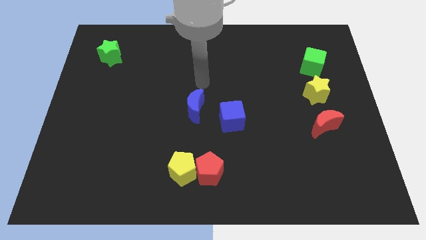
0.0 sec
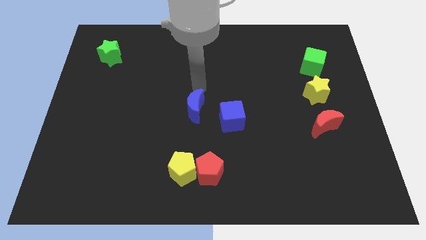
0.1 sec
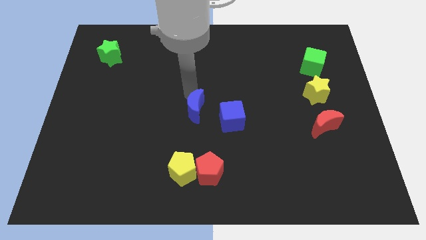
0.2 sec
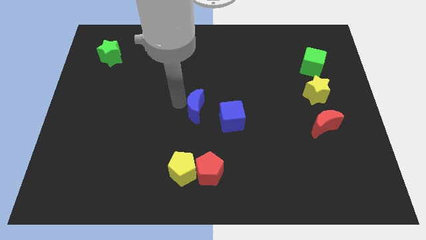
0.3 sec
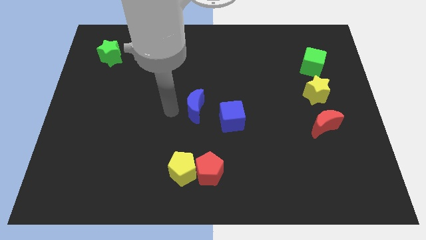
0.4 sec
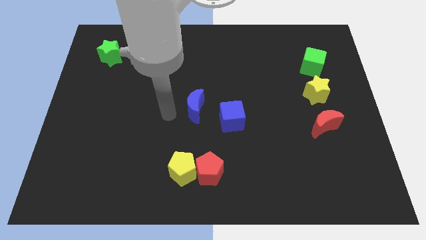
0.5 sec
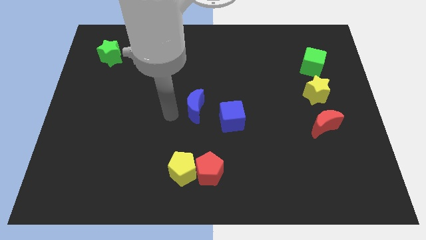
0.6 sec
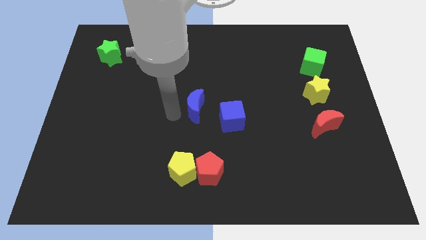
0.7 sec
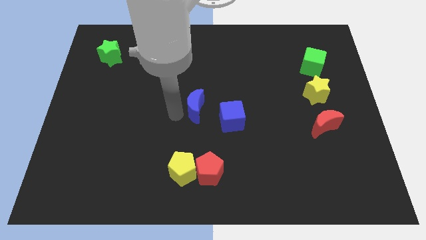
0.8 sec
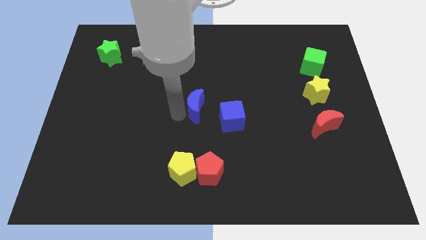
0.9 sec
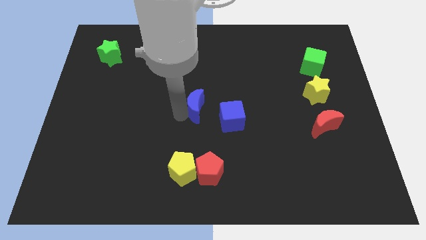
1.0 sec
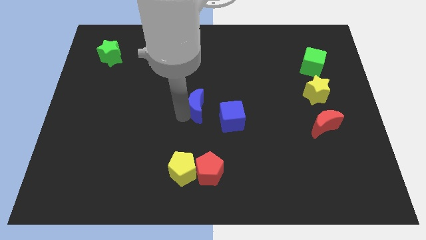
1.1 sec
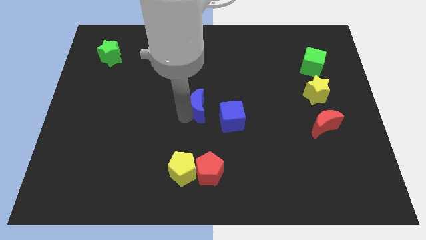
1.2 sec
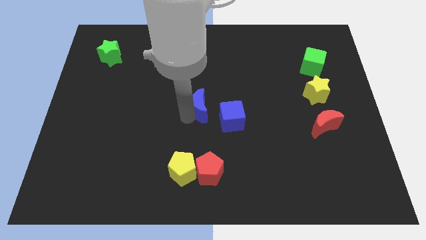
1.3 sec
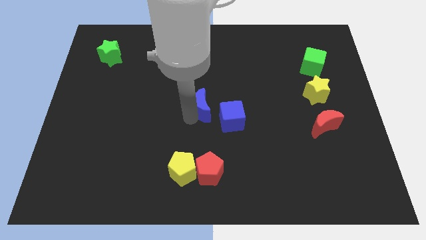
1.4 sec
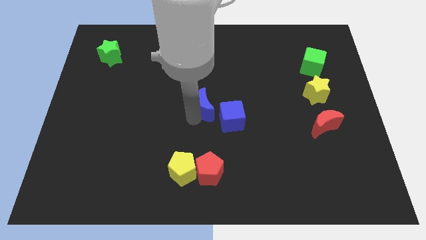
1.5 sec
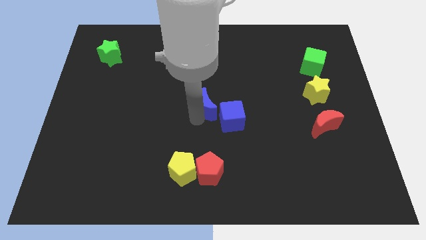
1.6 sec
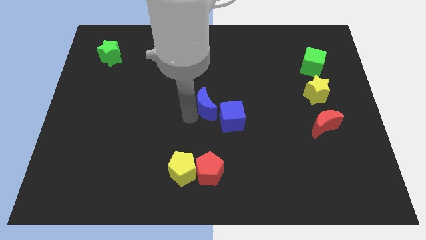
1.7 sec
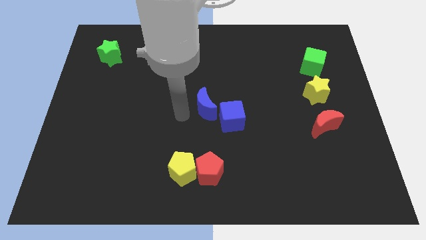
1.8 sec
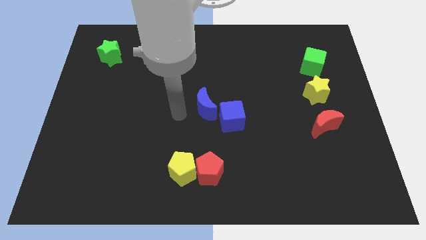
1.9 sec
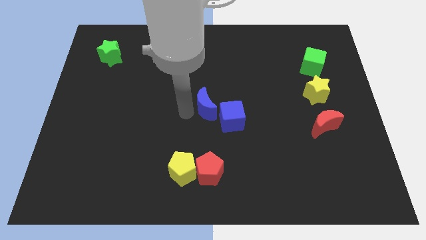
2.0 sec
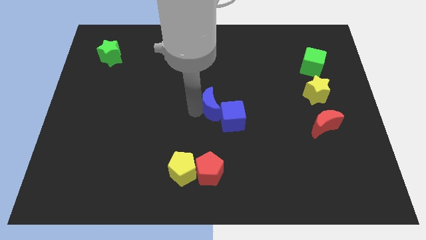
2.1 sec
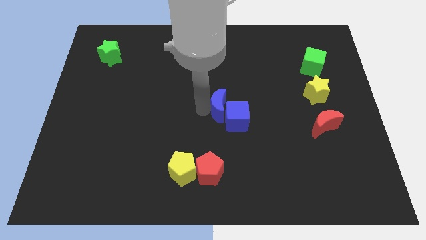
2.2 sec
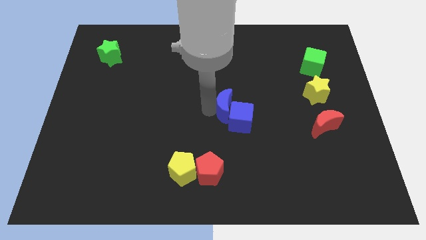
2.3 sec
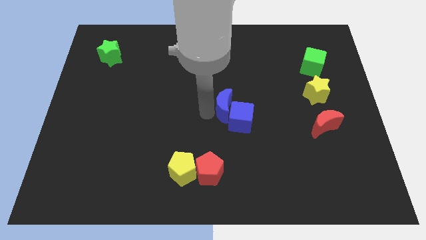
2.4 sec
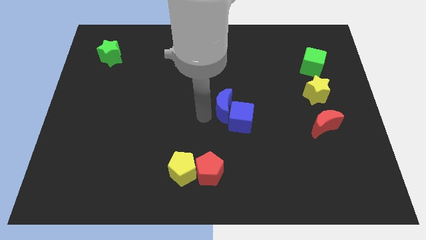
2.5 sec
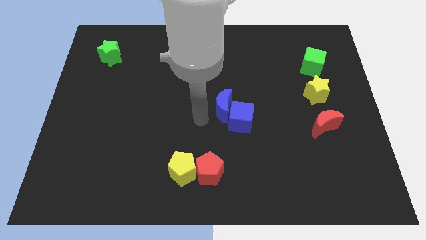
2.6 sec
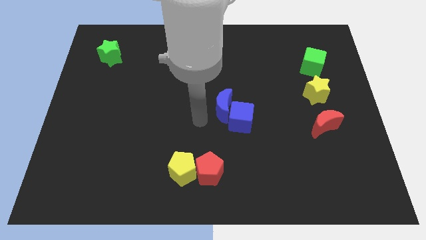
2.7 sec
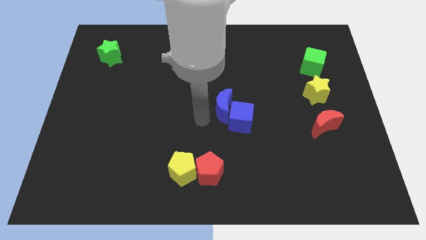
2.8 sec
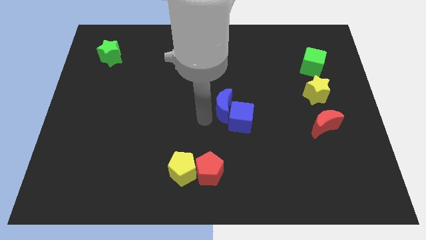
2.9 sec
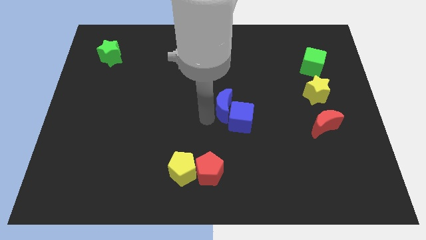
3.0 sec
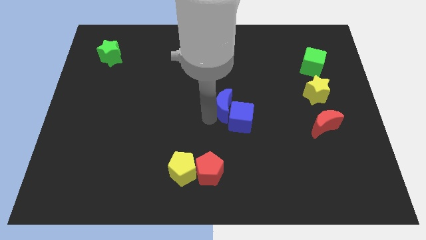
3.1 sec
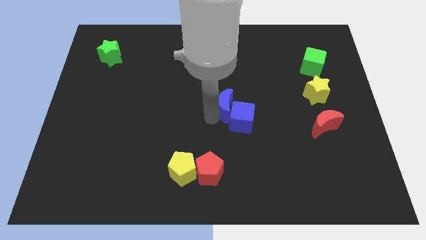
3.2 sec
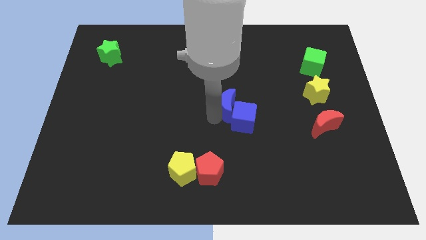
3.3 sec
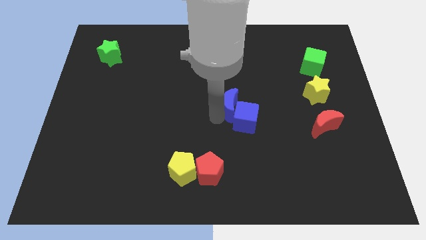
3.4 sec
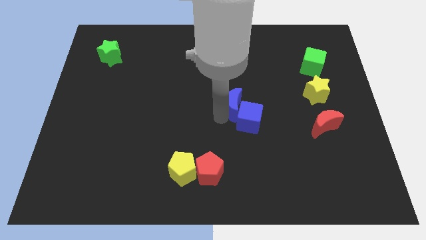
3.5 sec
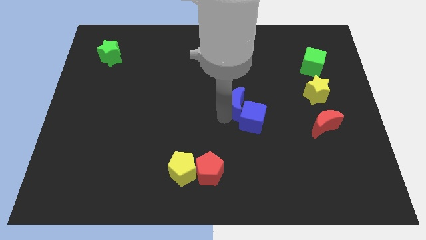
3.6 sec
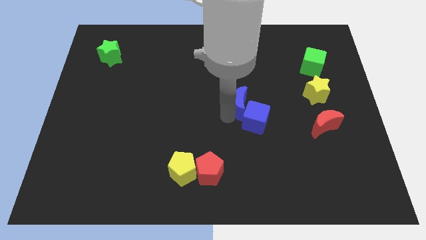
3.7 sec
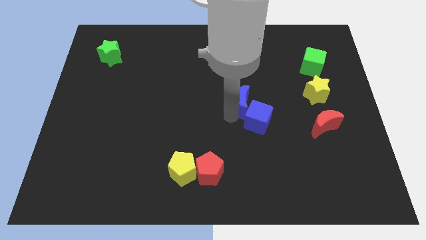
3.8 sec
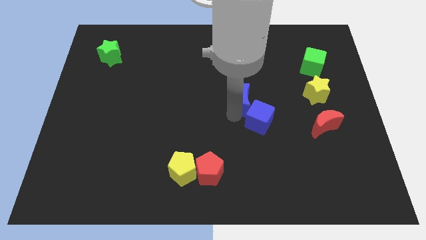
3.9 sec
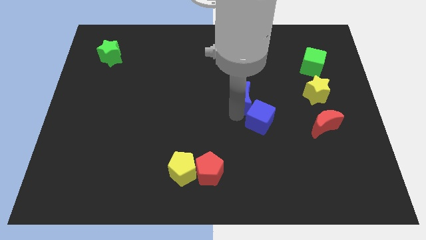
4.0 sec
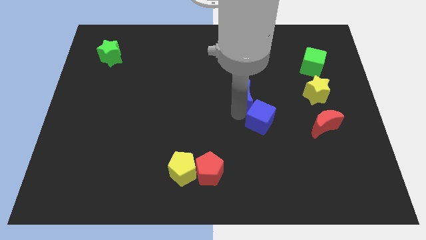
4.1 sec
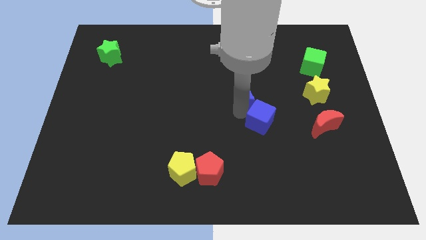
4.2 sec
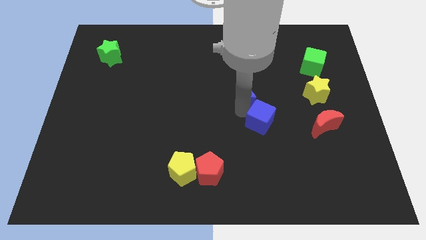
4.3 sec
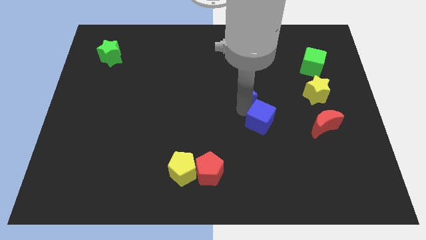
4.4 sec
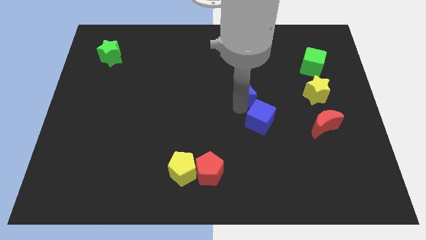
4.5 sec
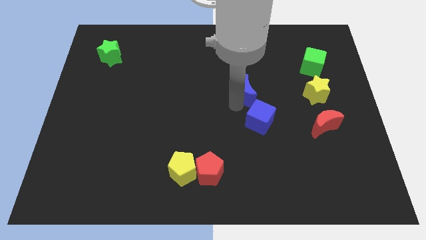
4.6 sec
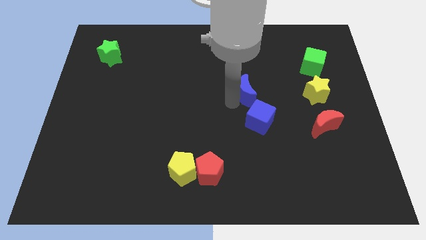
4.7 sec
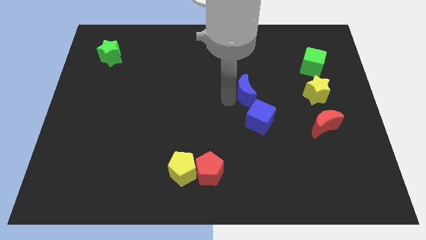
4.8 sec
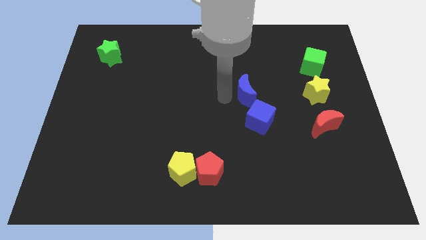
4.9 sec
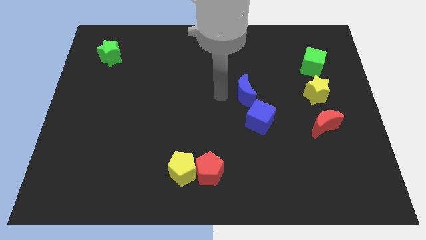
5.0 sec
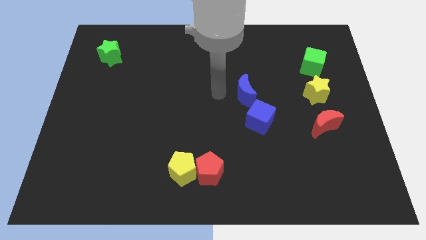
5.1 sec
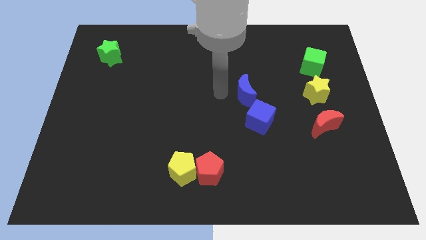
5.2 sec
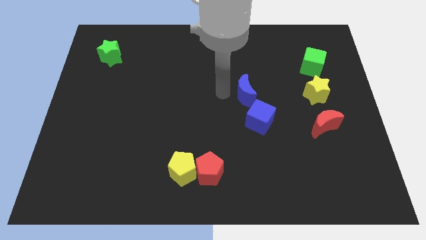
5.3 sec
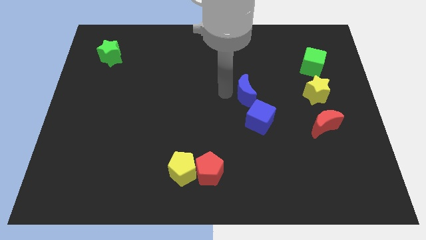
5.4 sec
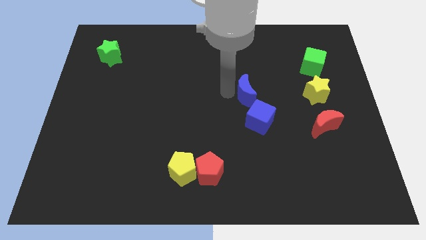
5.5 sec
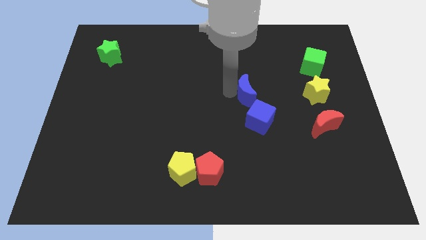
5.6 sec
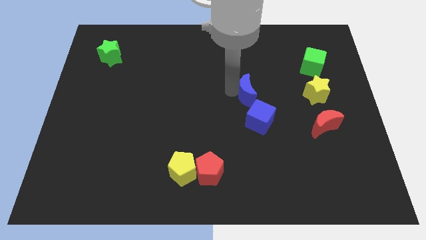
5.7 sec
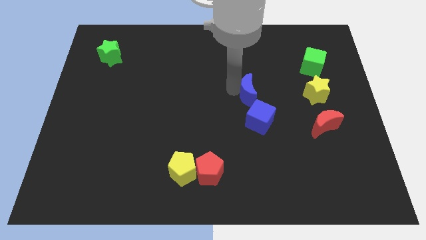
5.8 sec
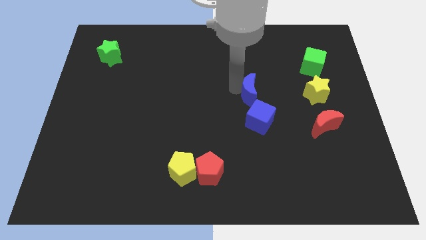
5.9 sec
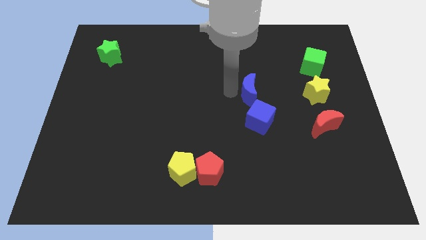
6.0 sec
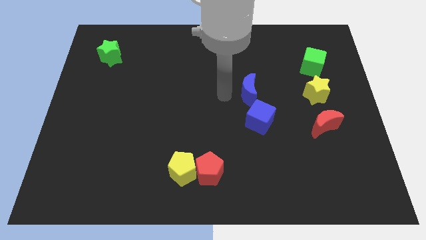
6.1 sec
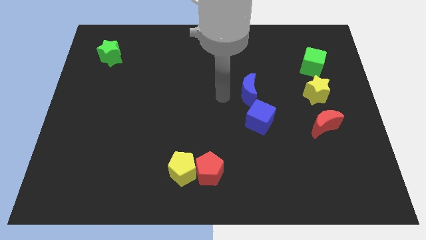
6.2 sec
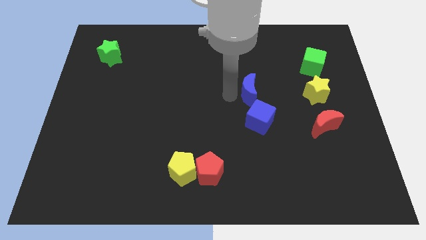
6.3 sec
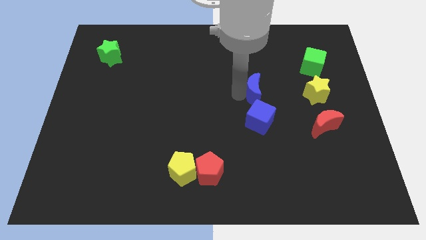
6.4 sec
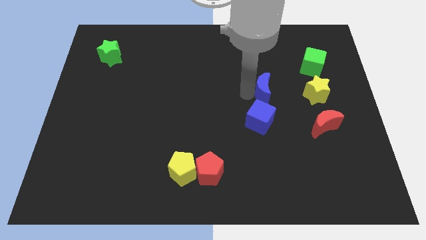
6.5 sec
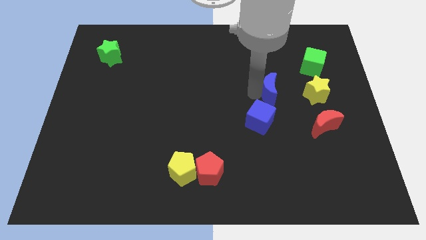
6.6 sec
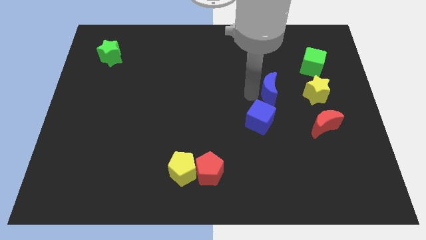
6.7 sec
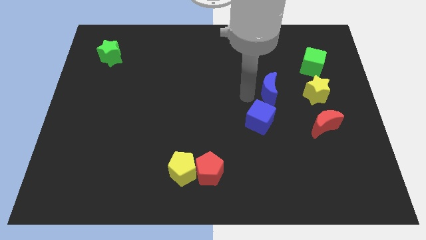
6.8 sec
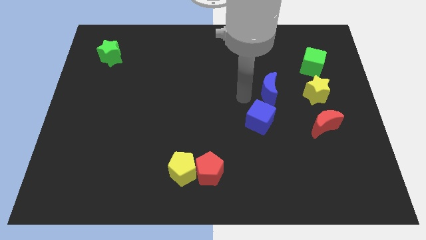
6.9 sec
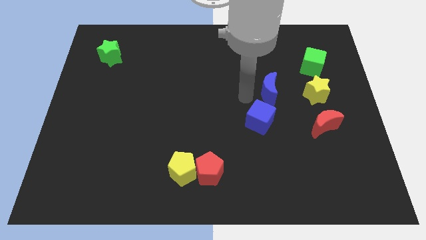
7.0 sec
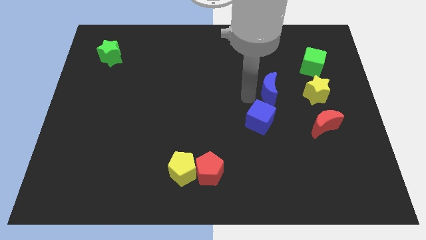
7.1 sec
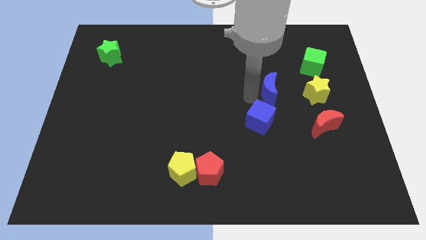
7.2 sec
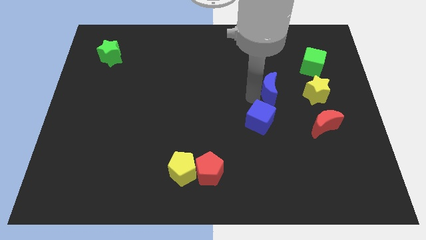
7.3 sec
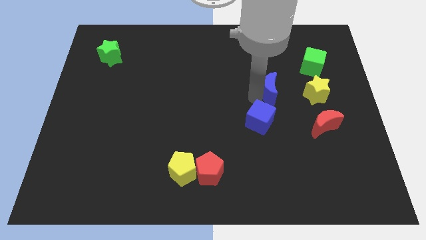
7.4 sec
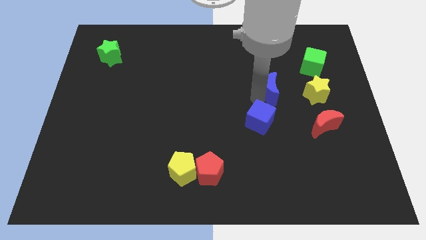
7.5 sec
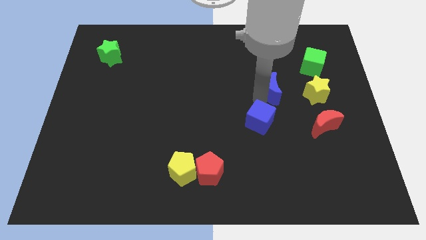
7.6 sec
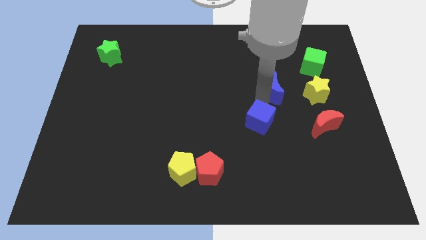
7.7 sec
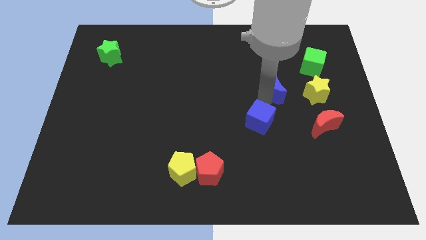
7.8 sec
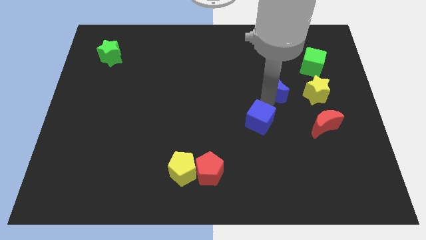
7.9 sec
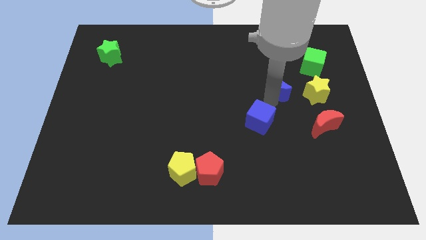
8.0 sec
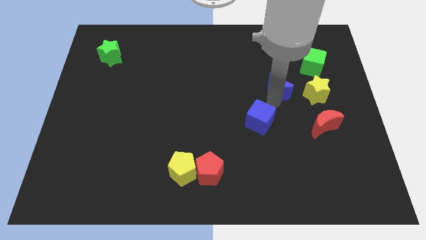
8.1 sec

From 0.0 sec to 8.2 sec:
move the blue moon to the bottom left of the green cube
